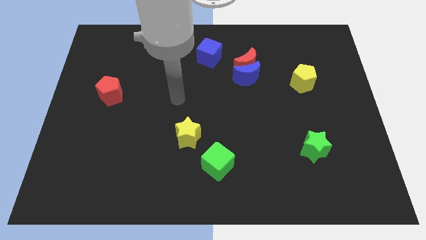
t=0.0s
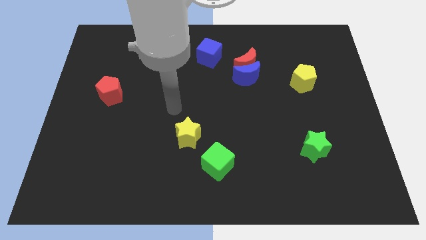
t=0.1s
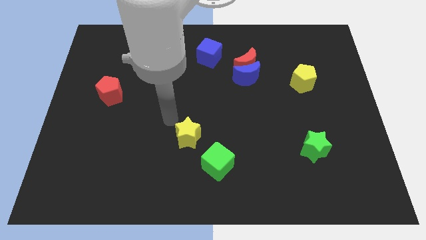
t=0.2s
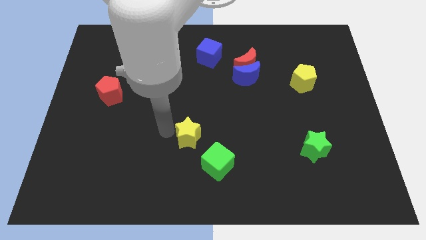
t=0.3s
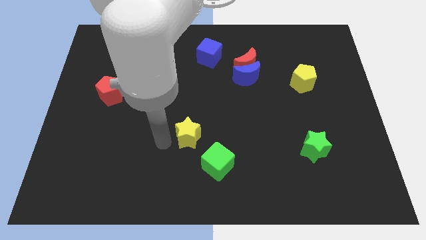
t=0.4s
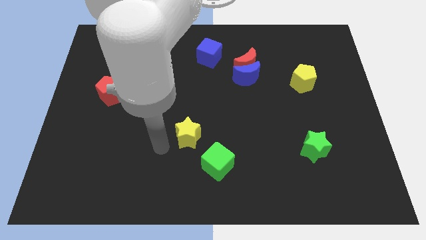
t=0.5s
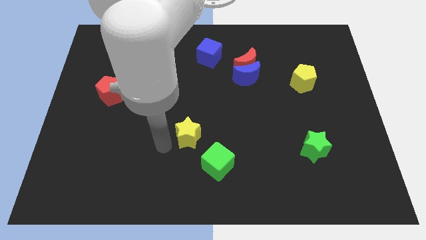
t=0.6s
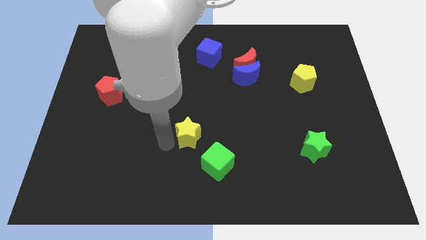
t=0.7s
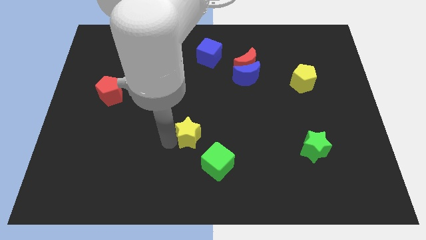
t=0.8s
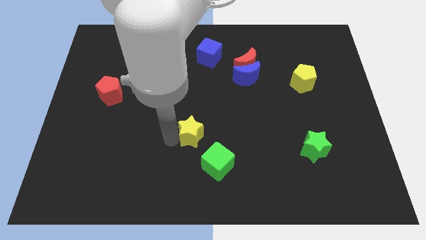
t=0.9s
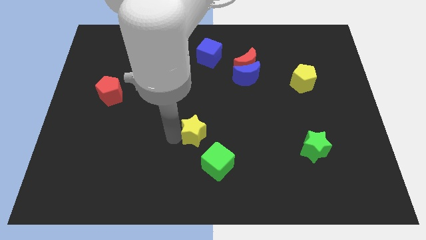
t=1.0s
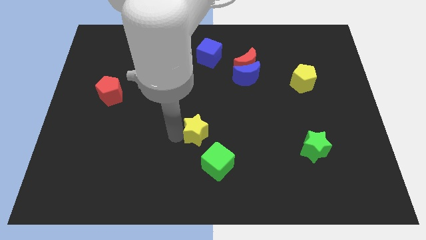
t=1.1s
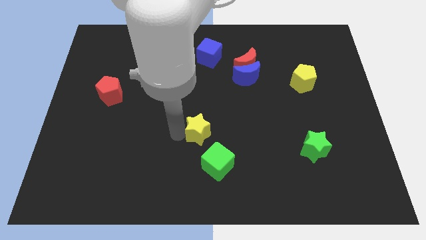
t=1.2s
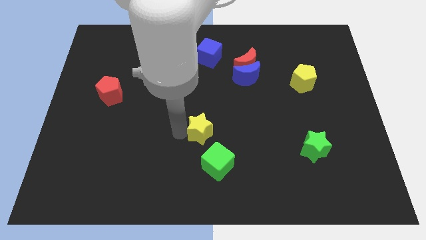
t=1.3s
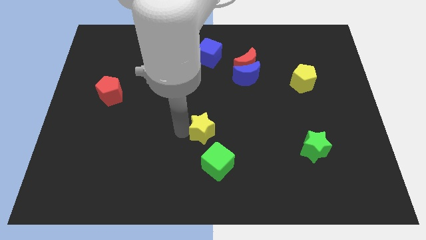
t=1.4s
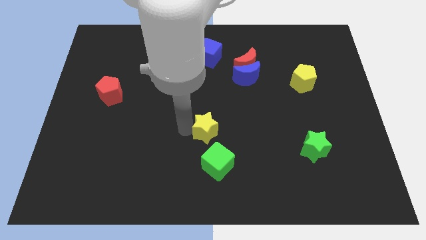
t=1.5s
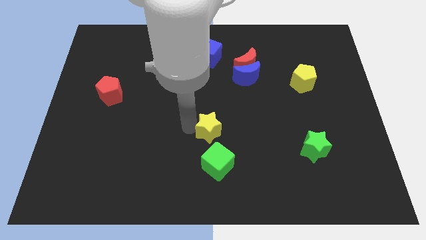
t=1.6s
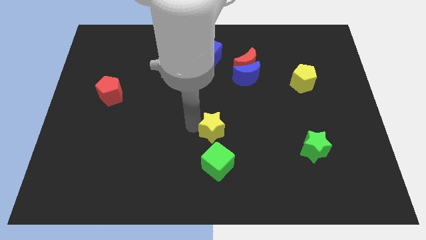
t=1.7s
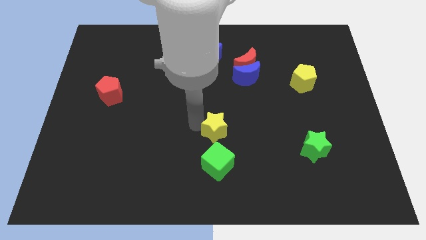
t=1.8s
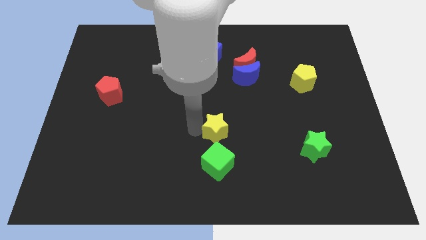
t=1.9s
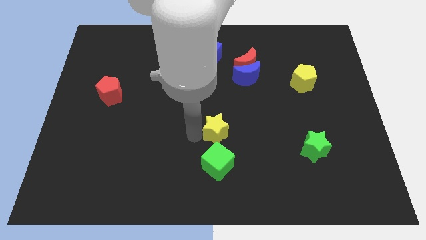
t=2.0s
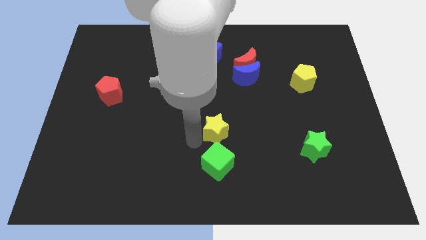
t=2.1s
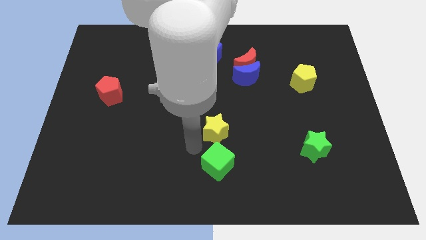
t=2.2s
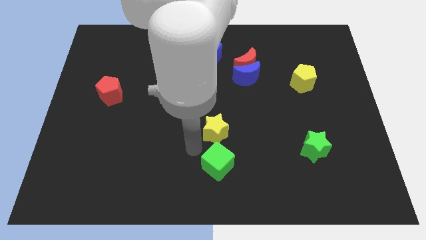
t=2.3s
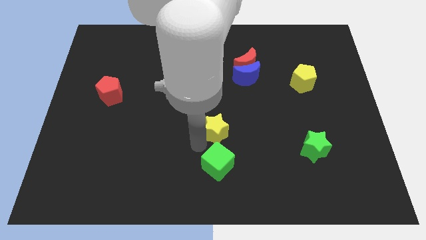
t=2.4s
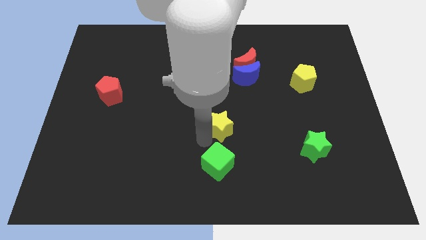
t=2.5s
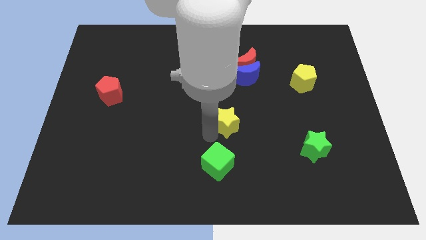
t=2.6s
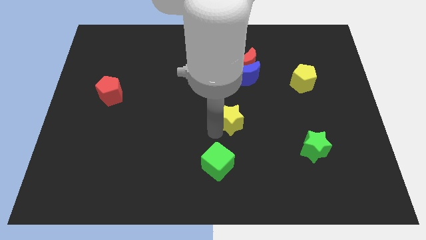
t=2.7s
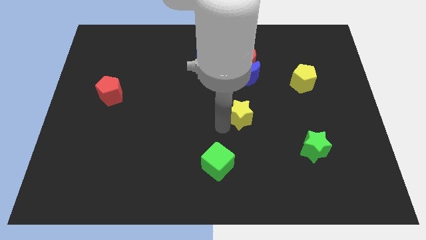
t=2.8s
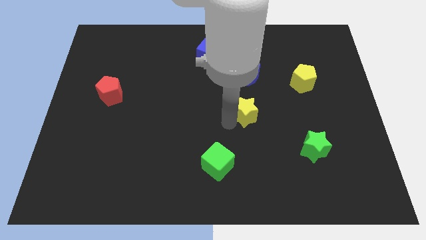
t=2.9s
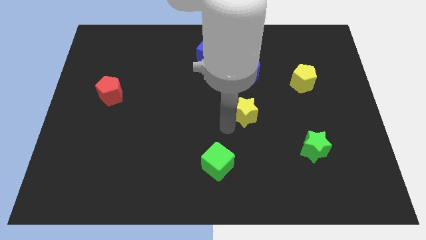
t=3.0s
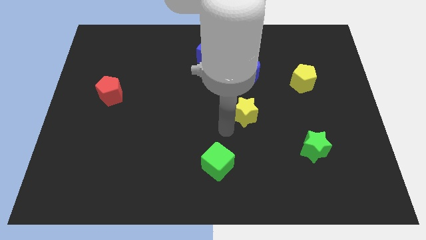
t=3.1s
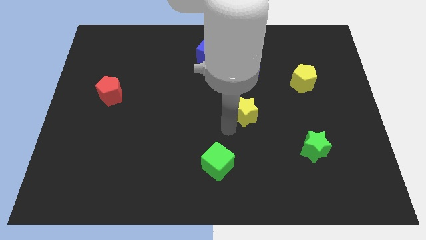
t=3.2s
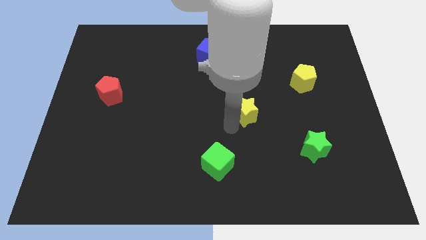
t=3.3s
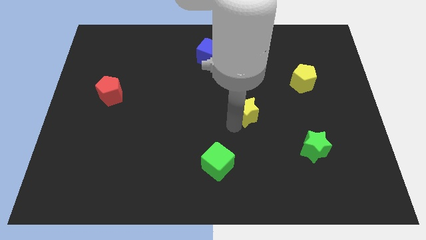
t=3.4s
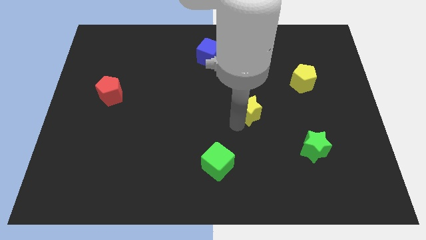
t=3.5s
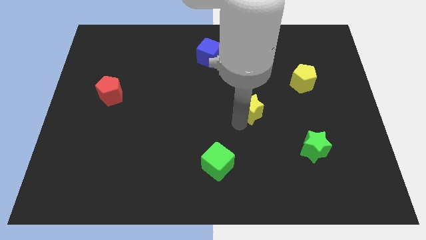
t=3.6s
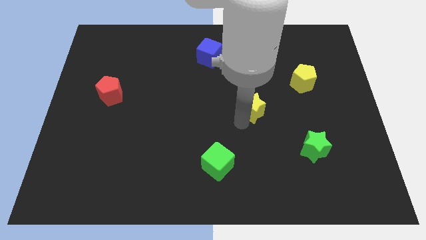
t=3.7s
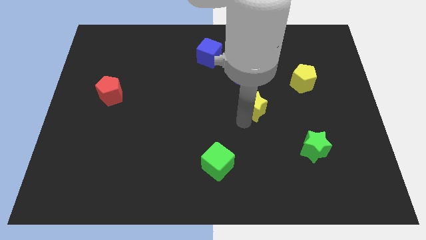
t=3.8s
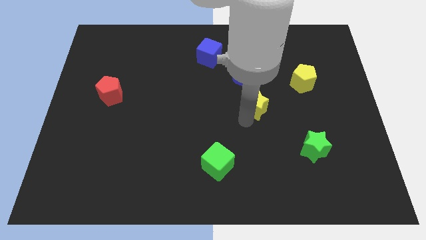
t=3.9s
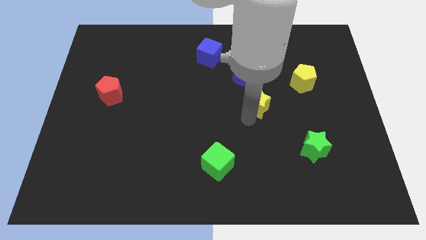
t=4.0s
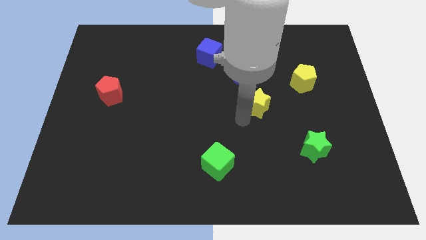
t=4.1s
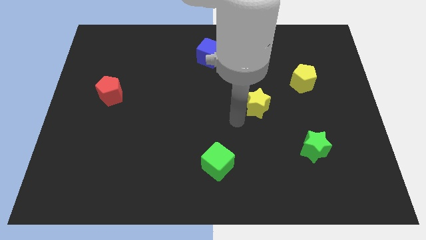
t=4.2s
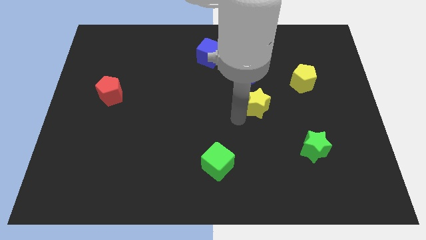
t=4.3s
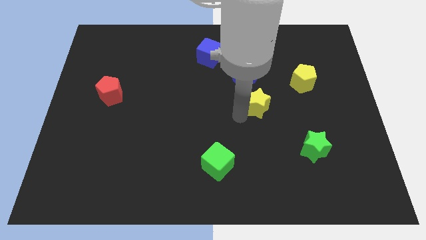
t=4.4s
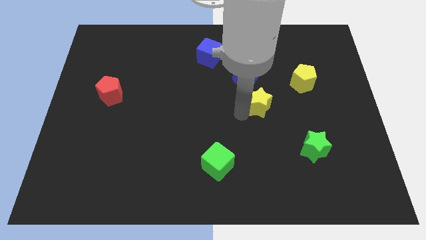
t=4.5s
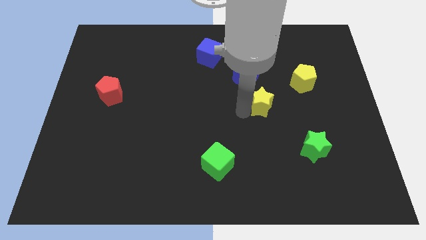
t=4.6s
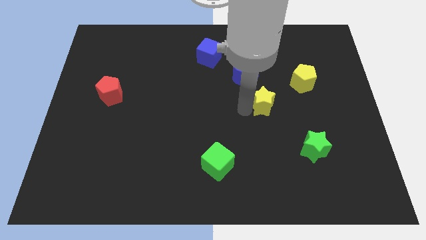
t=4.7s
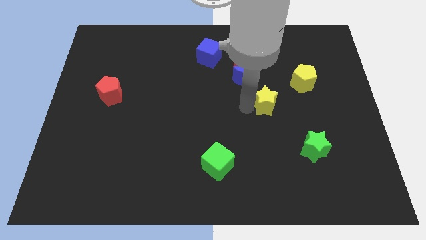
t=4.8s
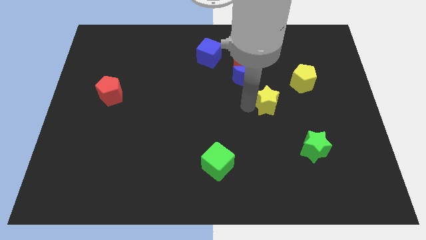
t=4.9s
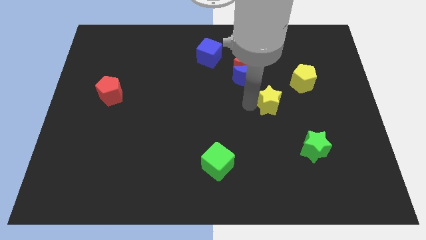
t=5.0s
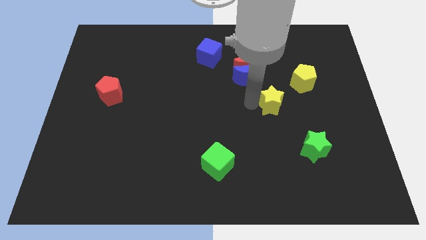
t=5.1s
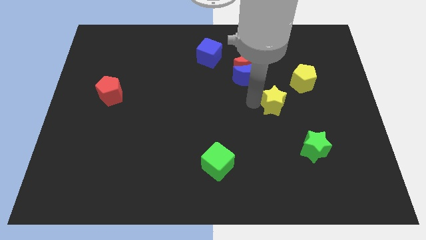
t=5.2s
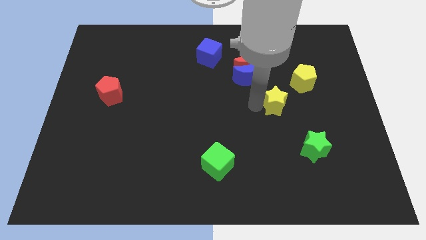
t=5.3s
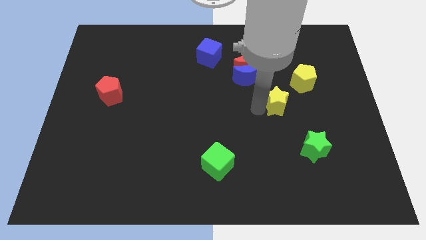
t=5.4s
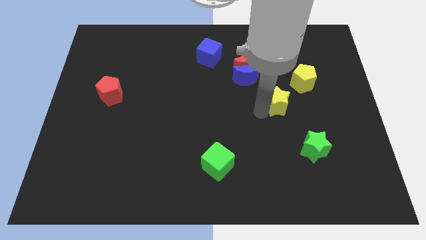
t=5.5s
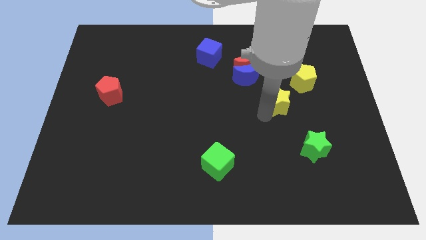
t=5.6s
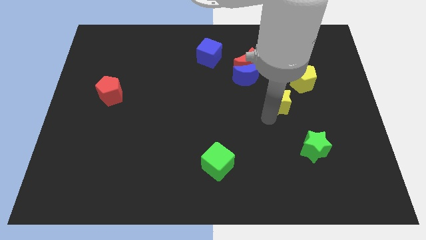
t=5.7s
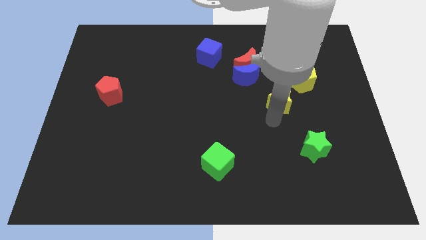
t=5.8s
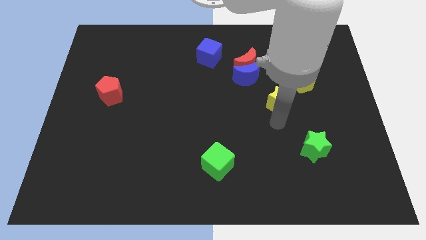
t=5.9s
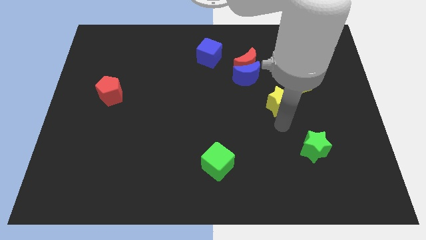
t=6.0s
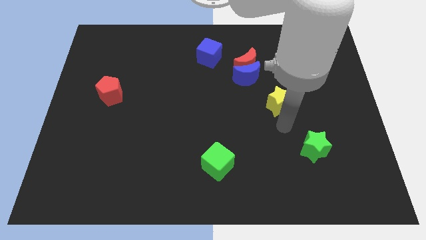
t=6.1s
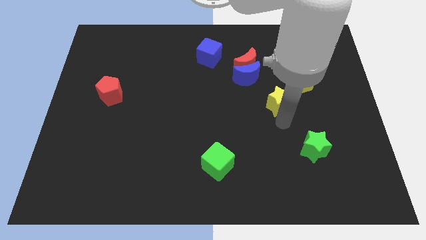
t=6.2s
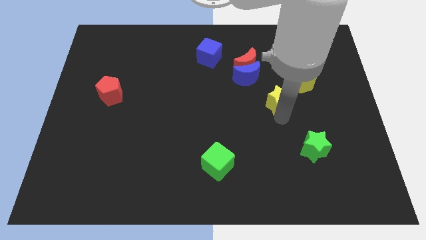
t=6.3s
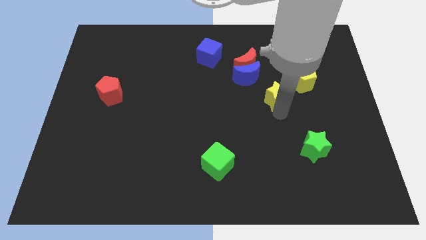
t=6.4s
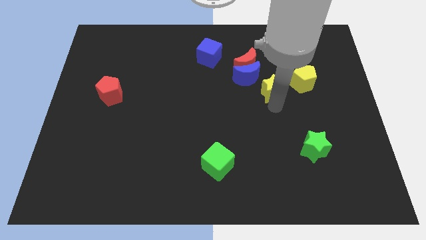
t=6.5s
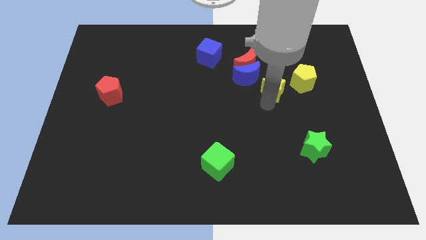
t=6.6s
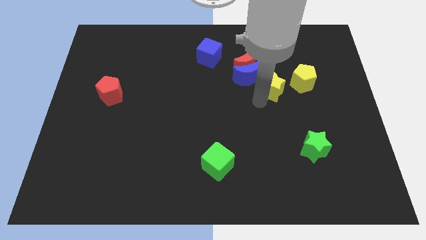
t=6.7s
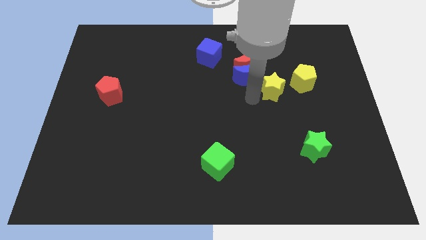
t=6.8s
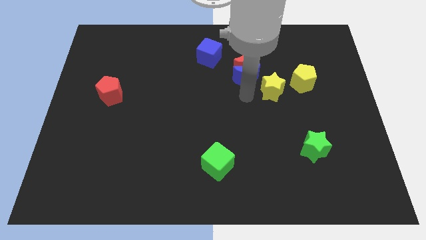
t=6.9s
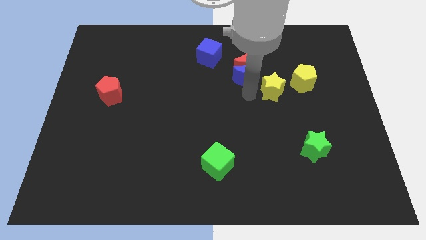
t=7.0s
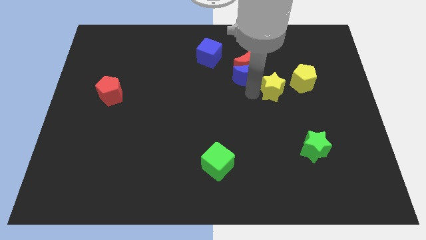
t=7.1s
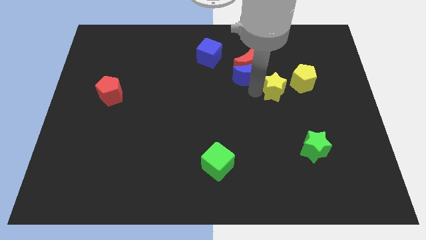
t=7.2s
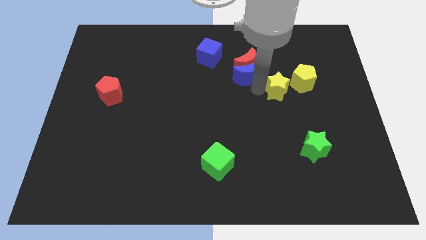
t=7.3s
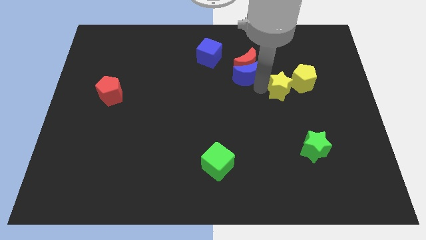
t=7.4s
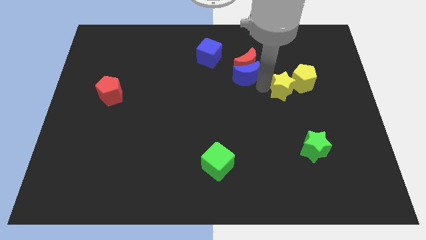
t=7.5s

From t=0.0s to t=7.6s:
slide the yellow star to the yellow pentagon
